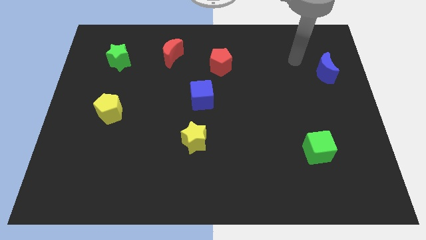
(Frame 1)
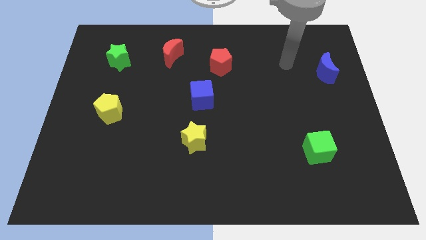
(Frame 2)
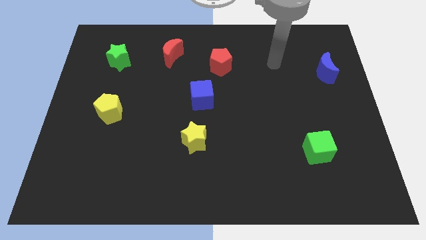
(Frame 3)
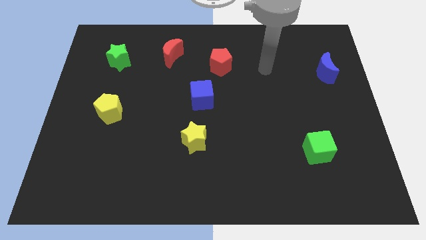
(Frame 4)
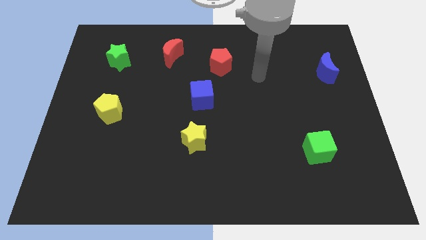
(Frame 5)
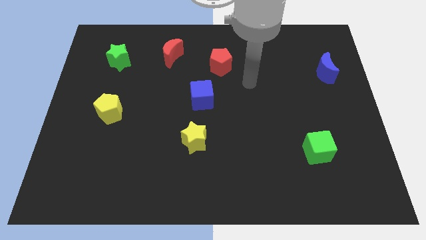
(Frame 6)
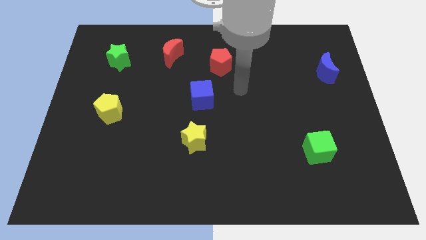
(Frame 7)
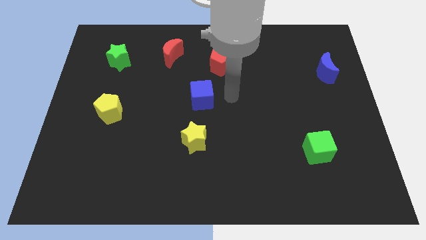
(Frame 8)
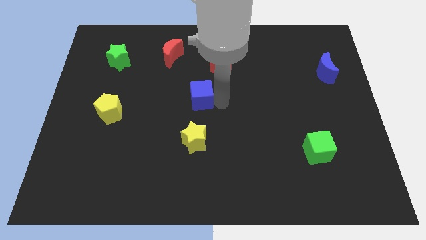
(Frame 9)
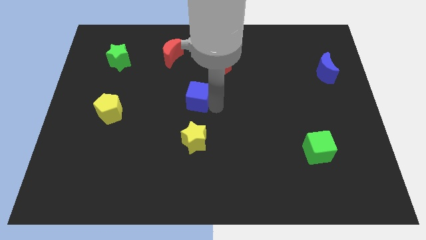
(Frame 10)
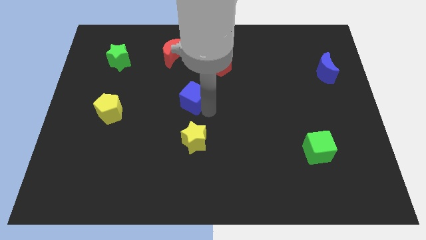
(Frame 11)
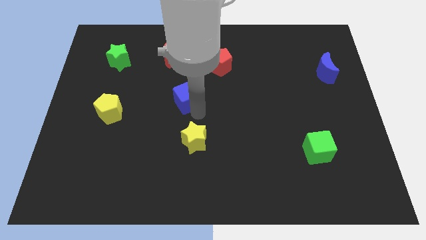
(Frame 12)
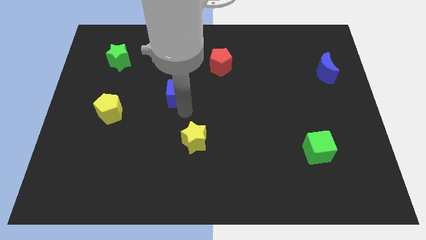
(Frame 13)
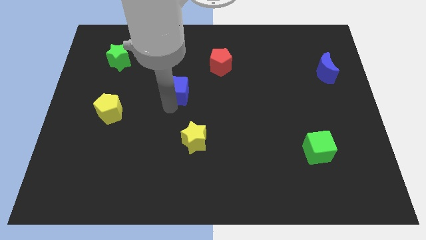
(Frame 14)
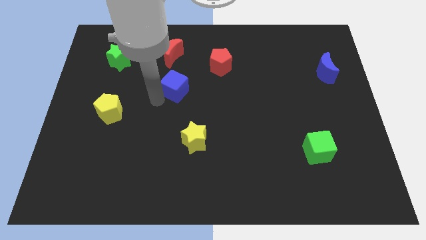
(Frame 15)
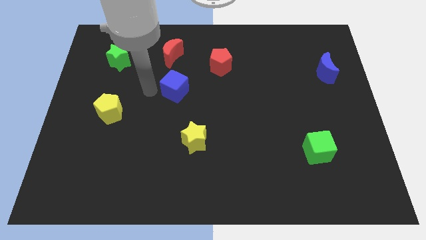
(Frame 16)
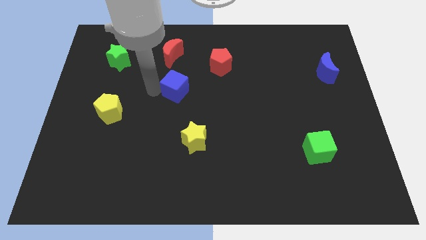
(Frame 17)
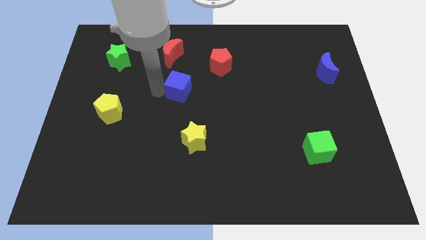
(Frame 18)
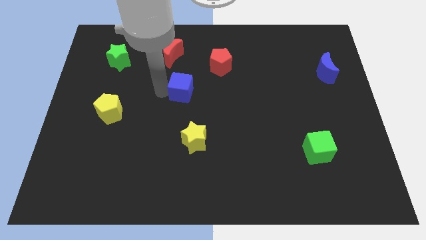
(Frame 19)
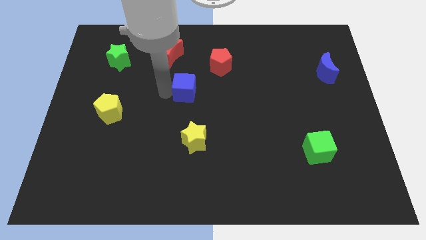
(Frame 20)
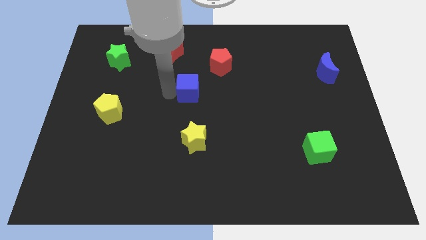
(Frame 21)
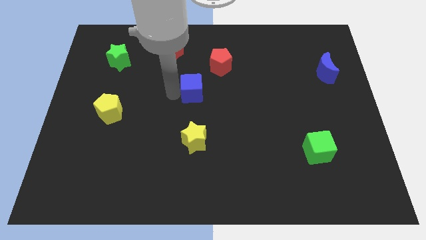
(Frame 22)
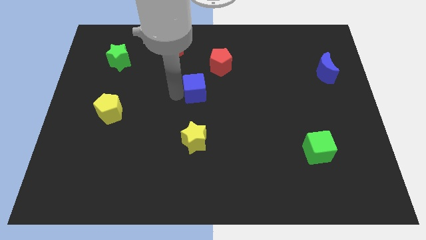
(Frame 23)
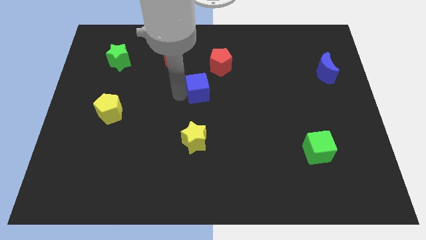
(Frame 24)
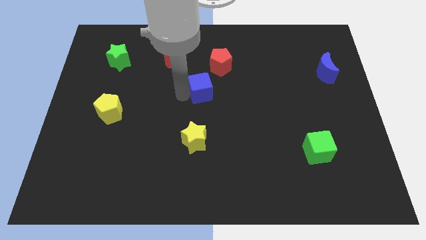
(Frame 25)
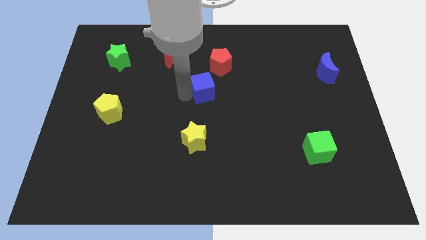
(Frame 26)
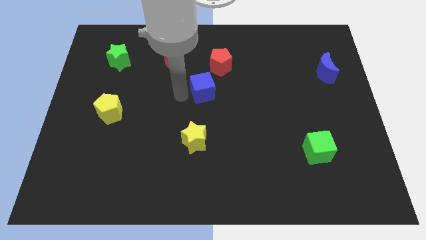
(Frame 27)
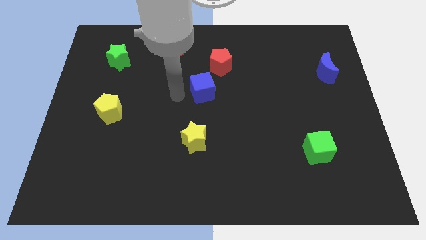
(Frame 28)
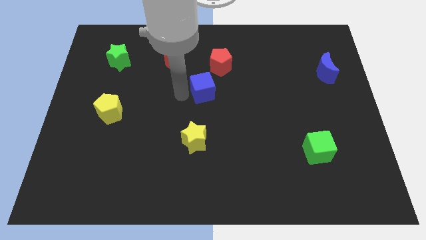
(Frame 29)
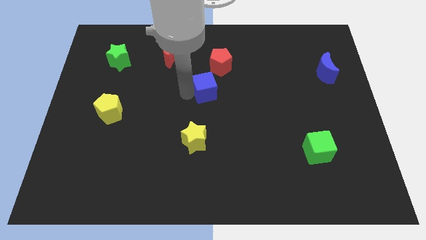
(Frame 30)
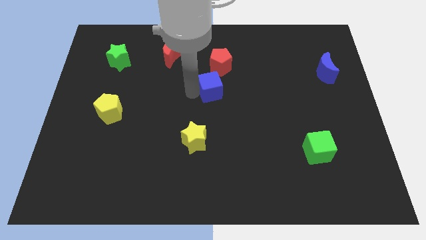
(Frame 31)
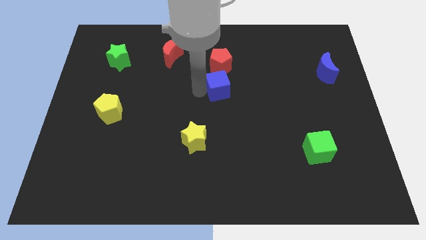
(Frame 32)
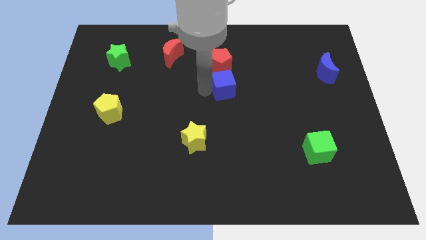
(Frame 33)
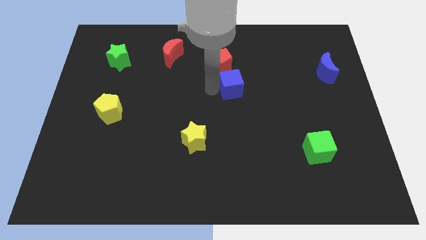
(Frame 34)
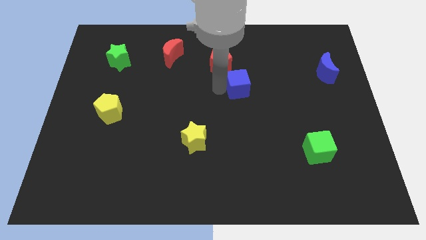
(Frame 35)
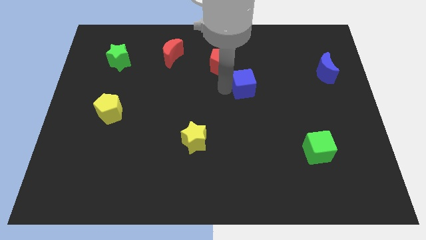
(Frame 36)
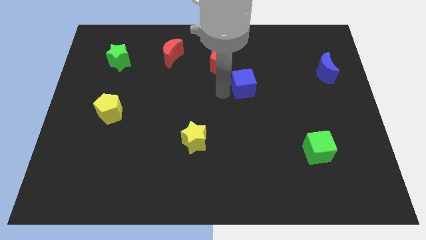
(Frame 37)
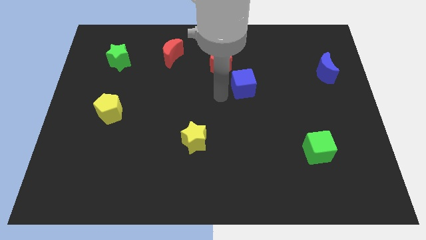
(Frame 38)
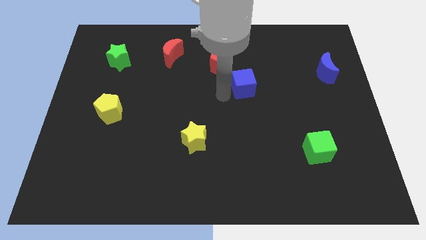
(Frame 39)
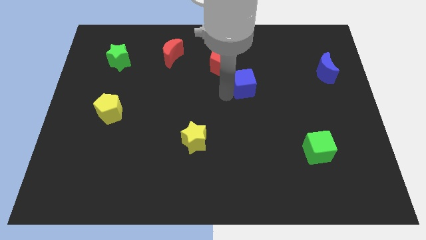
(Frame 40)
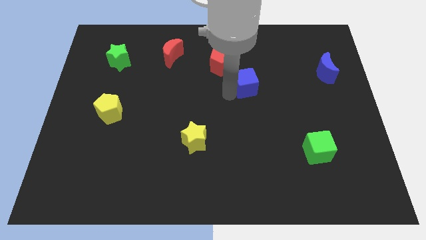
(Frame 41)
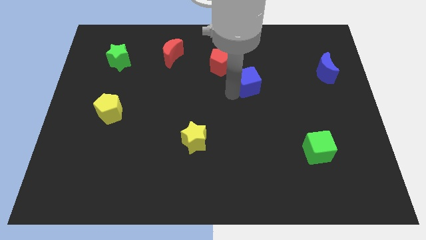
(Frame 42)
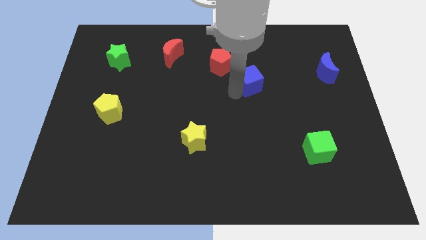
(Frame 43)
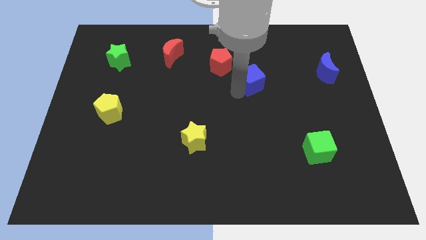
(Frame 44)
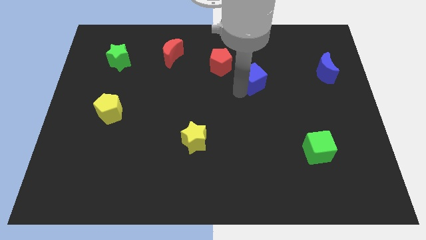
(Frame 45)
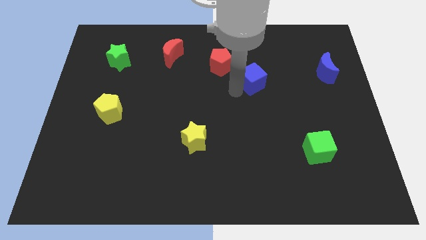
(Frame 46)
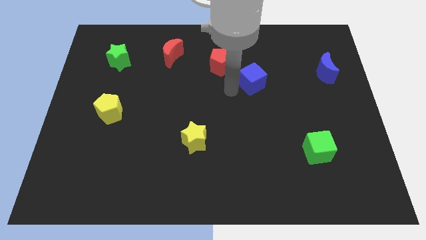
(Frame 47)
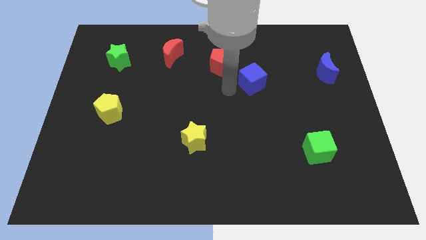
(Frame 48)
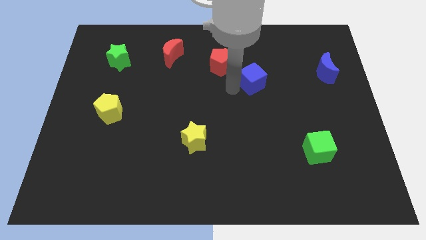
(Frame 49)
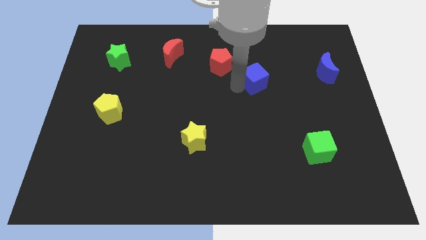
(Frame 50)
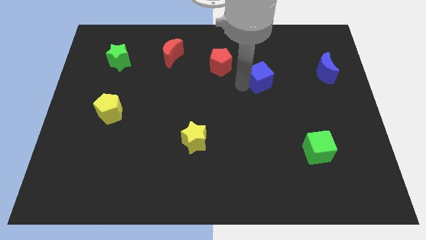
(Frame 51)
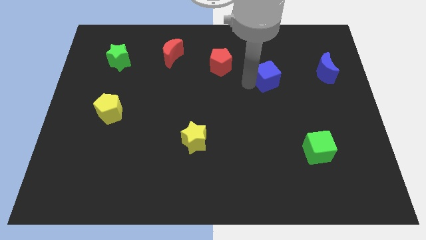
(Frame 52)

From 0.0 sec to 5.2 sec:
put the blue cube to the left of the blue moon

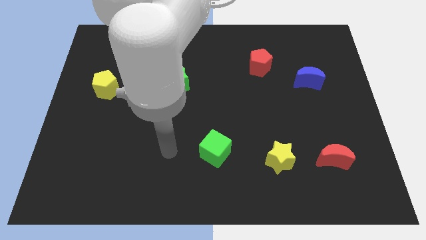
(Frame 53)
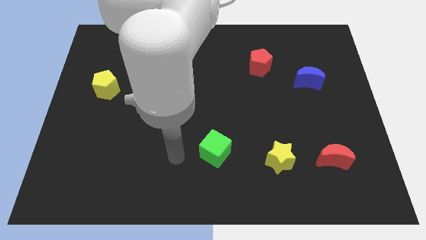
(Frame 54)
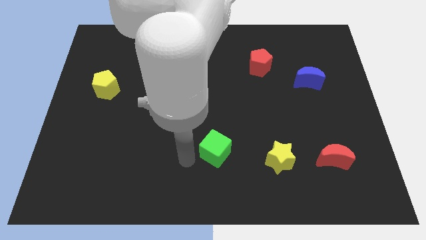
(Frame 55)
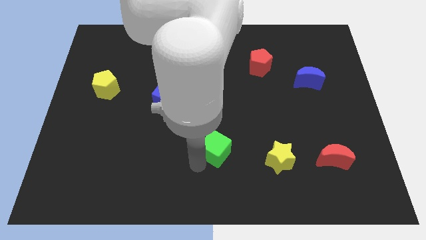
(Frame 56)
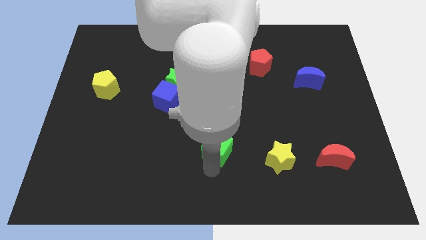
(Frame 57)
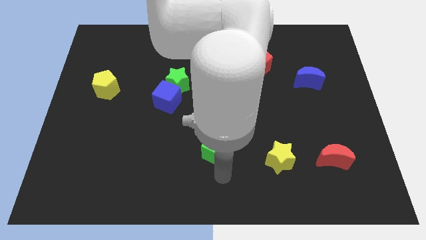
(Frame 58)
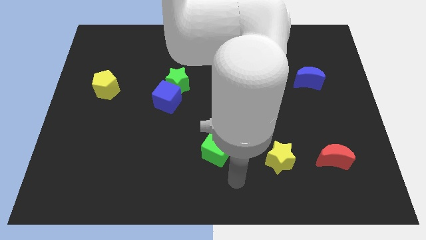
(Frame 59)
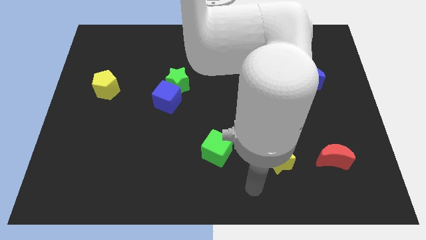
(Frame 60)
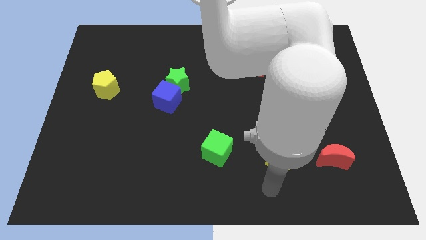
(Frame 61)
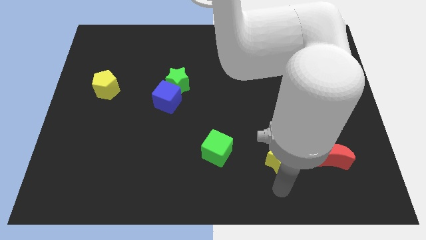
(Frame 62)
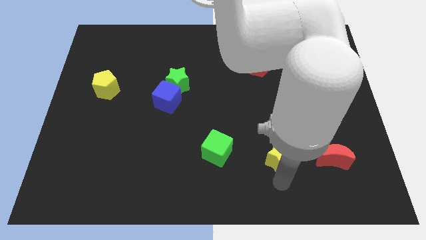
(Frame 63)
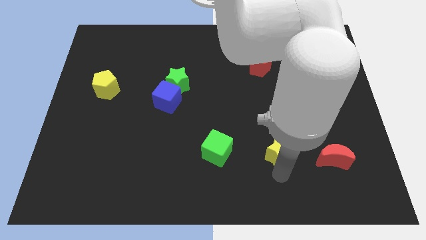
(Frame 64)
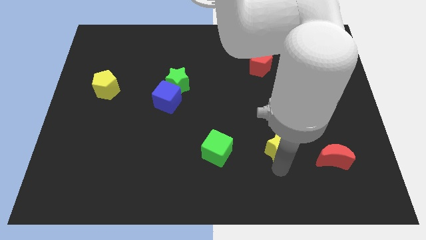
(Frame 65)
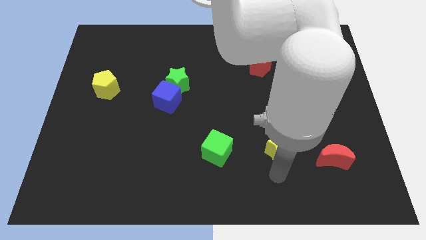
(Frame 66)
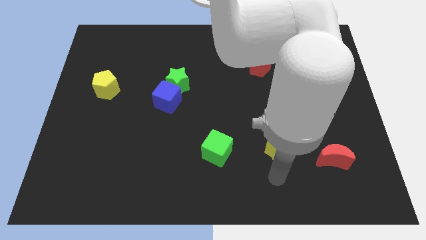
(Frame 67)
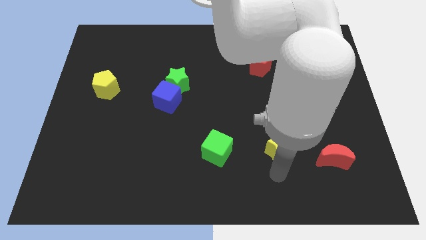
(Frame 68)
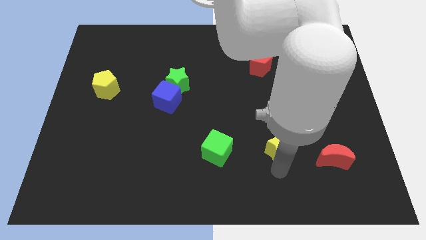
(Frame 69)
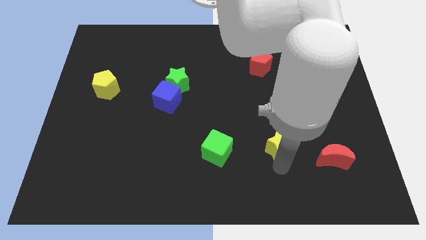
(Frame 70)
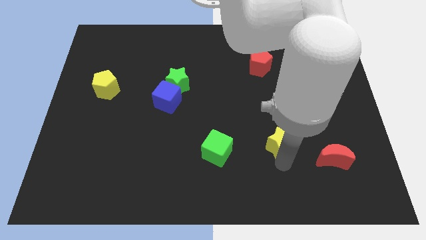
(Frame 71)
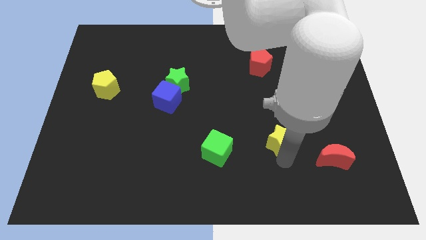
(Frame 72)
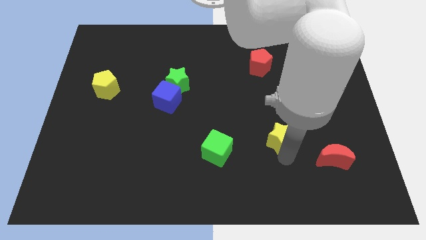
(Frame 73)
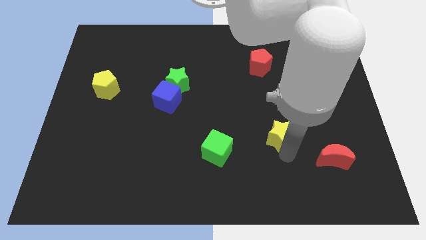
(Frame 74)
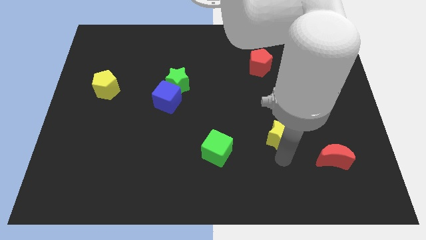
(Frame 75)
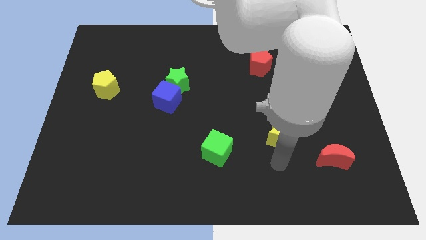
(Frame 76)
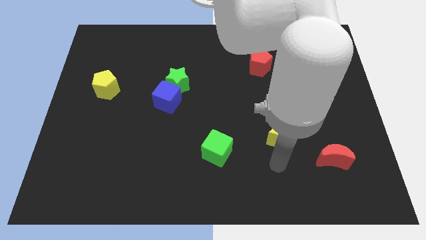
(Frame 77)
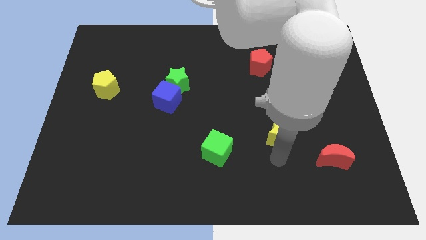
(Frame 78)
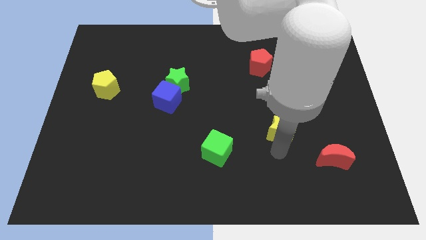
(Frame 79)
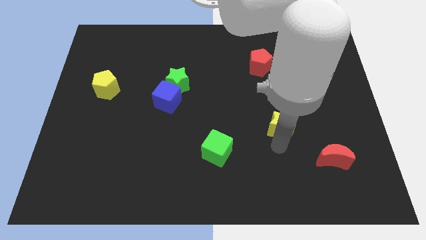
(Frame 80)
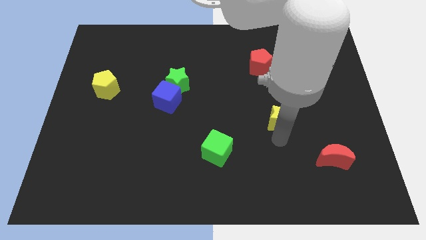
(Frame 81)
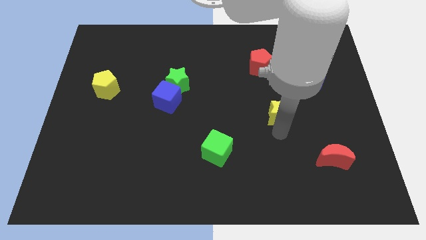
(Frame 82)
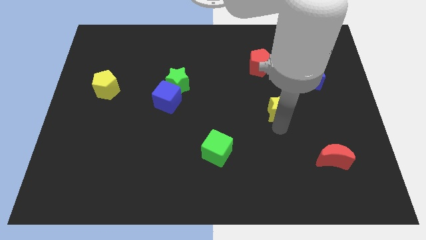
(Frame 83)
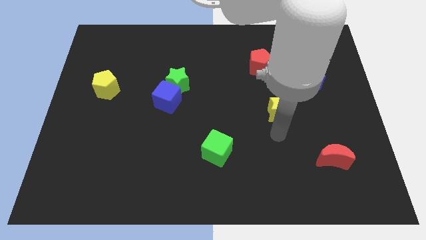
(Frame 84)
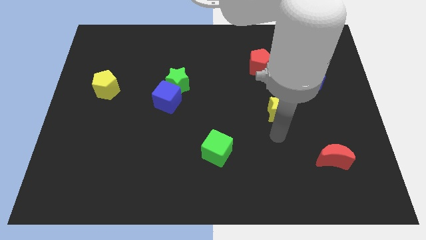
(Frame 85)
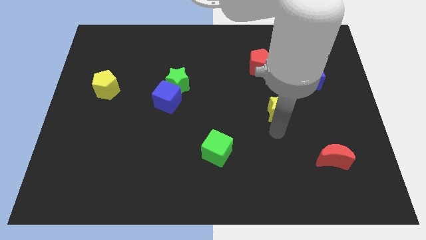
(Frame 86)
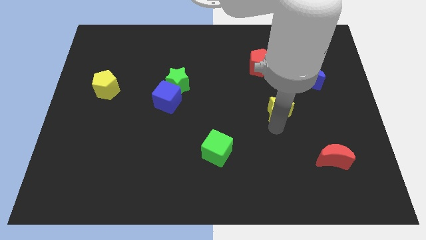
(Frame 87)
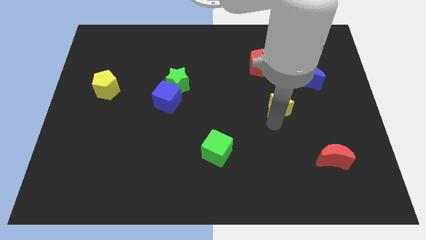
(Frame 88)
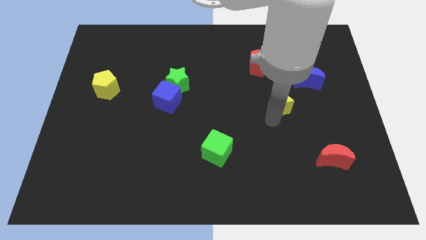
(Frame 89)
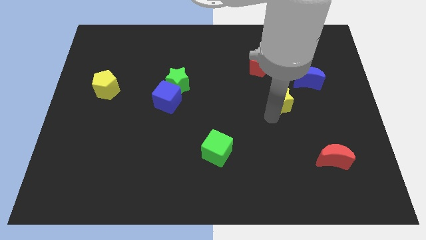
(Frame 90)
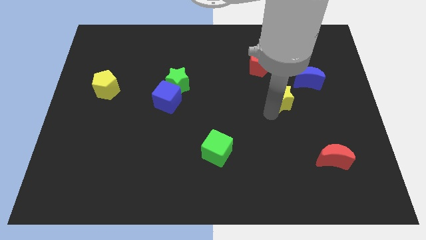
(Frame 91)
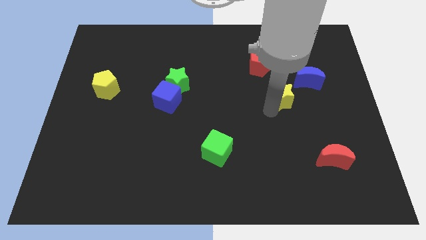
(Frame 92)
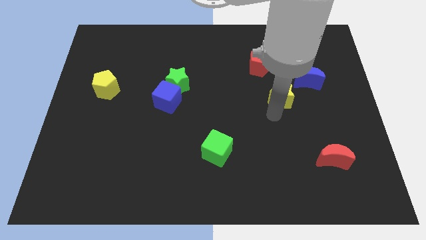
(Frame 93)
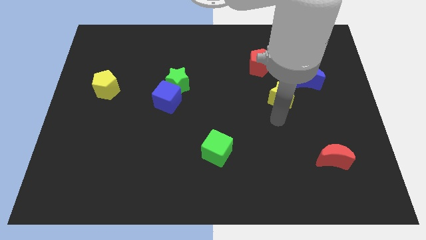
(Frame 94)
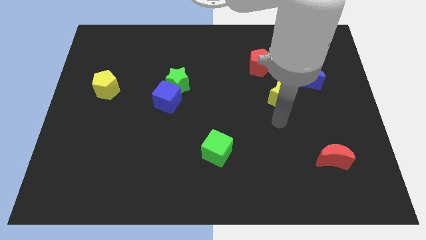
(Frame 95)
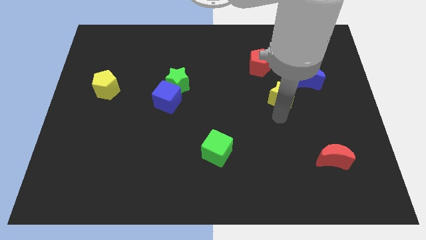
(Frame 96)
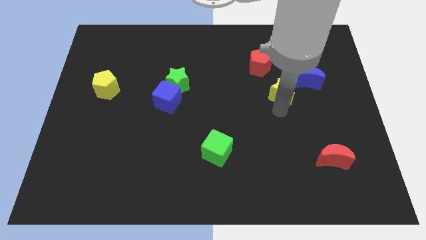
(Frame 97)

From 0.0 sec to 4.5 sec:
push the yellow star diagonally down and to the right of the red pentagon
